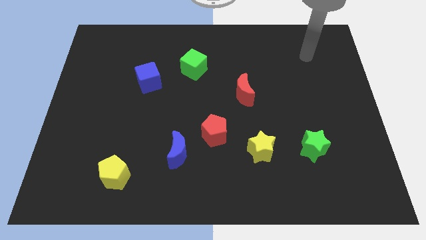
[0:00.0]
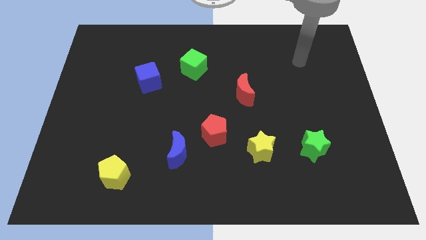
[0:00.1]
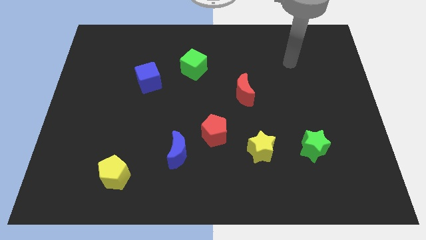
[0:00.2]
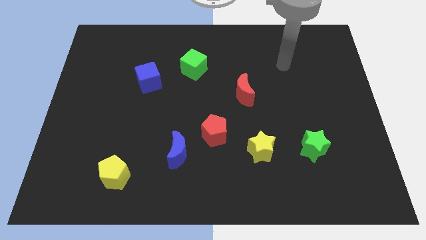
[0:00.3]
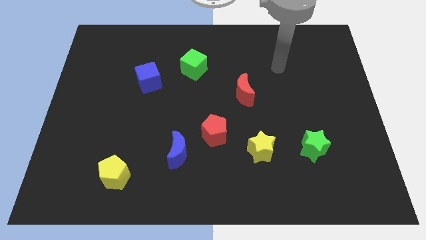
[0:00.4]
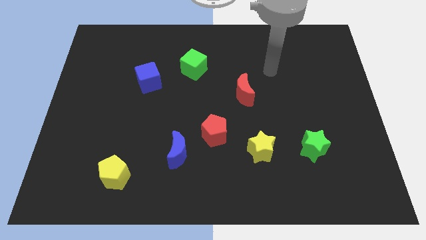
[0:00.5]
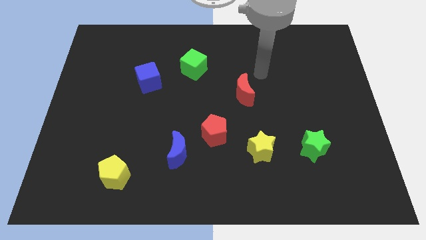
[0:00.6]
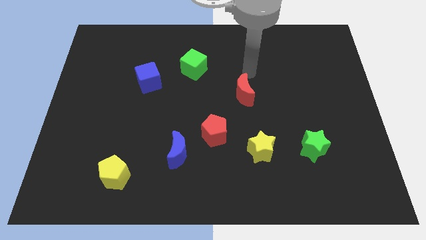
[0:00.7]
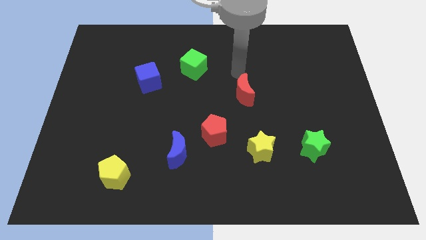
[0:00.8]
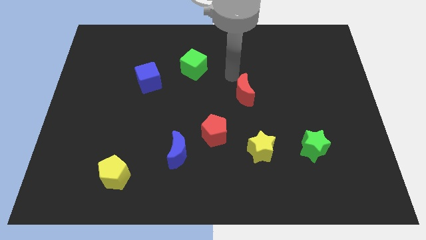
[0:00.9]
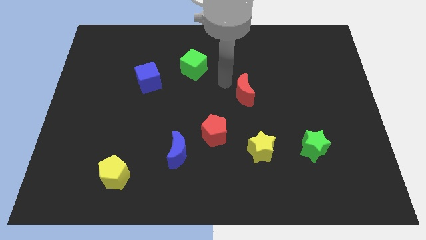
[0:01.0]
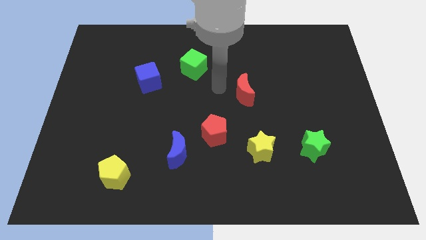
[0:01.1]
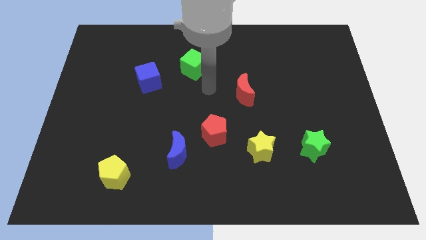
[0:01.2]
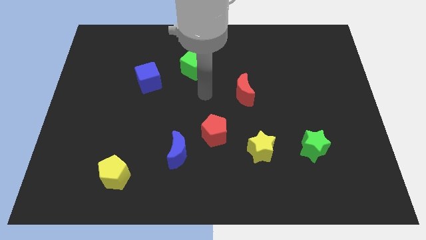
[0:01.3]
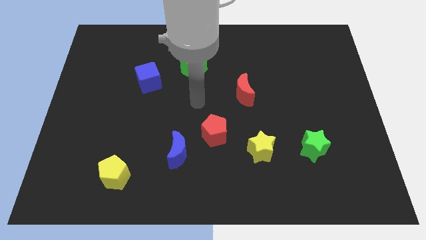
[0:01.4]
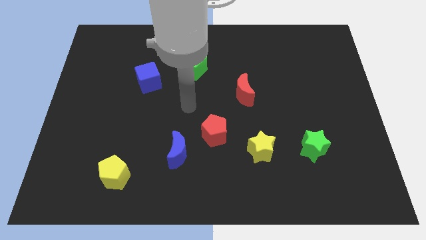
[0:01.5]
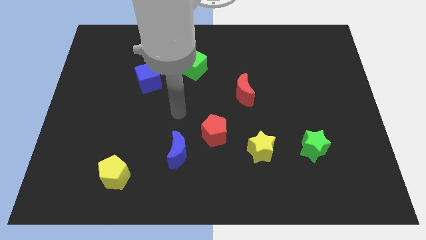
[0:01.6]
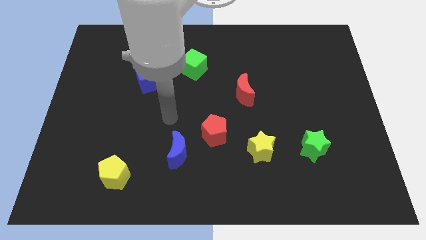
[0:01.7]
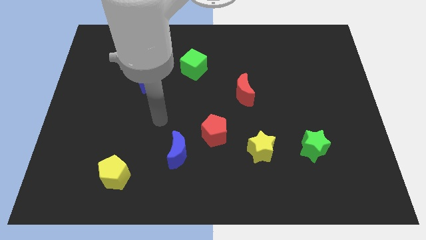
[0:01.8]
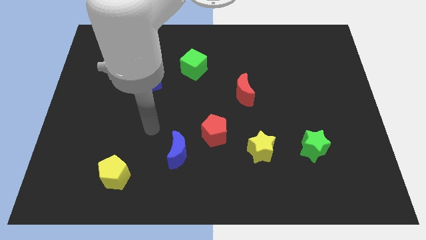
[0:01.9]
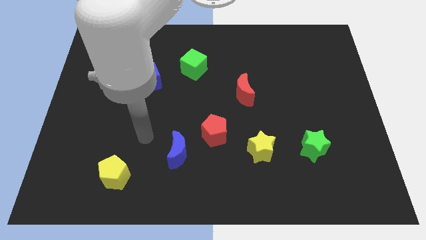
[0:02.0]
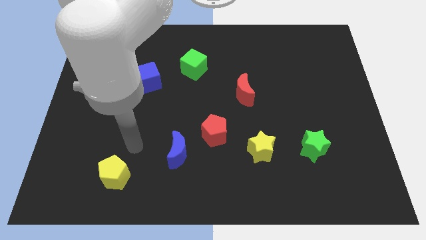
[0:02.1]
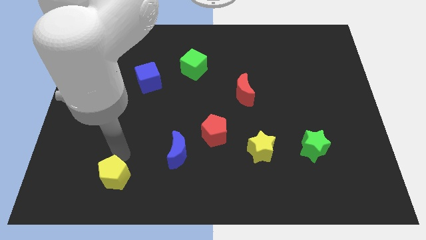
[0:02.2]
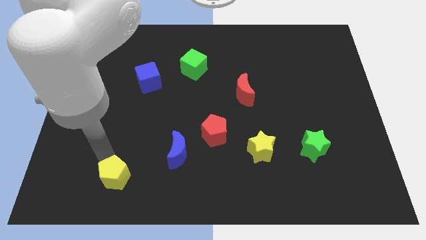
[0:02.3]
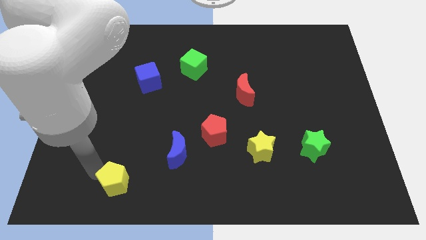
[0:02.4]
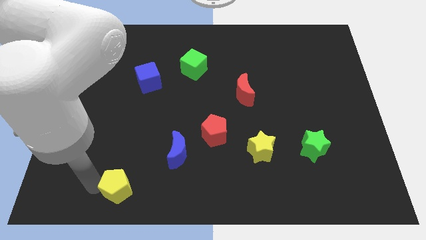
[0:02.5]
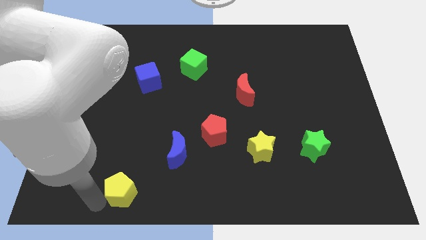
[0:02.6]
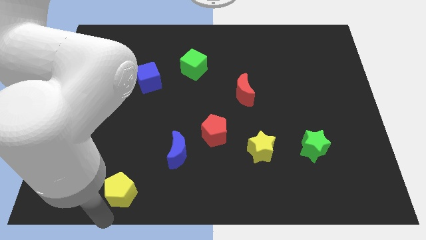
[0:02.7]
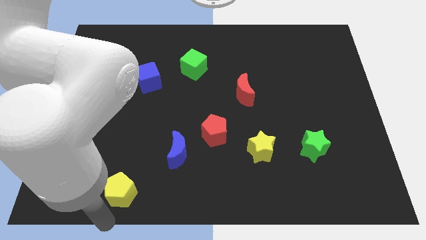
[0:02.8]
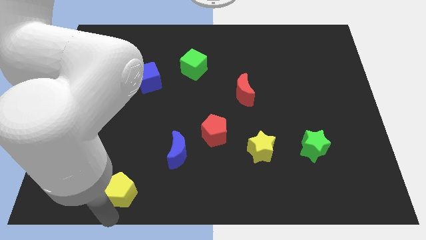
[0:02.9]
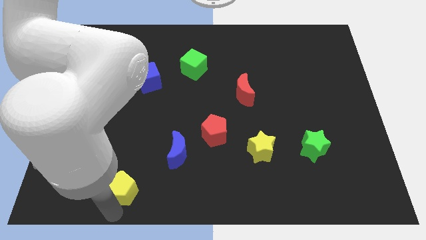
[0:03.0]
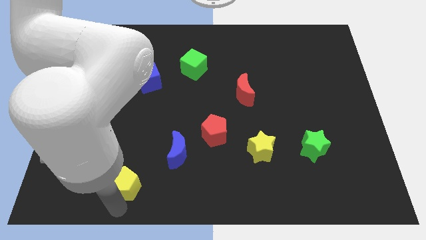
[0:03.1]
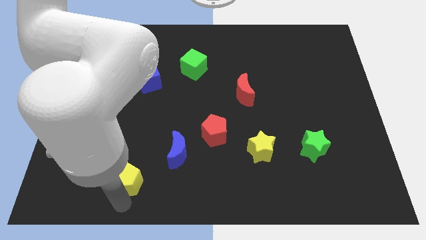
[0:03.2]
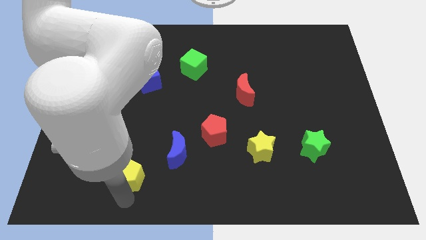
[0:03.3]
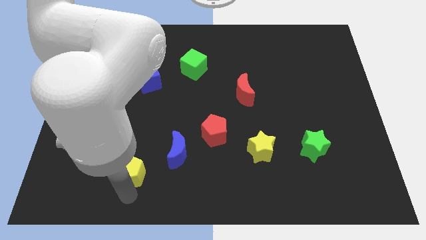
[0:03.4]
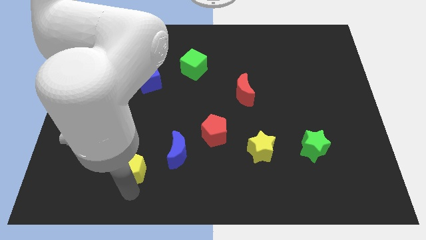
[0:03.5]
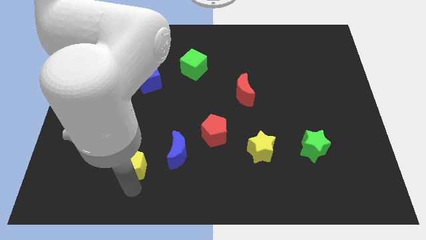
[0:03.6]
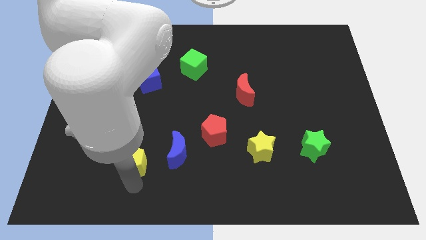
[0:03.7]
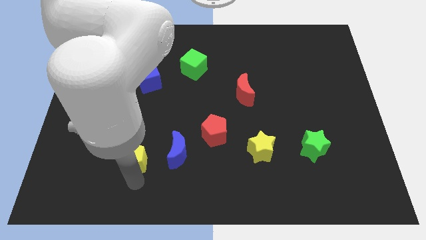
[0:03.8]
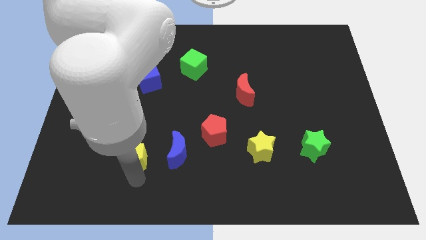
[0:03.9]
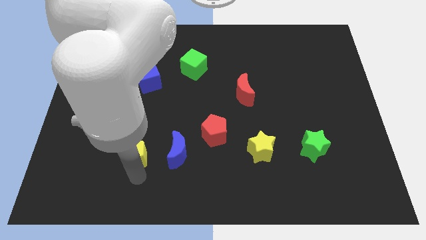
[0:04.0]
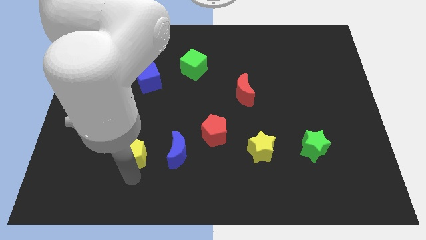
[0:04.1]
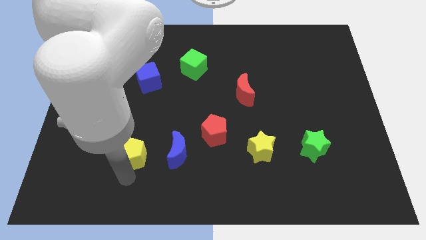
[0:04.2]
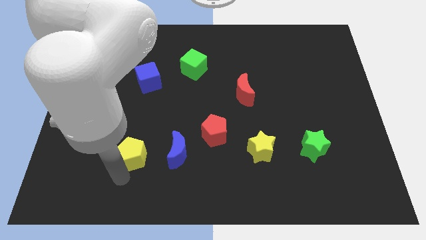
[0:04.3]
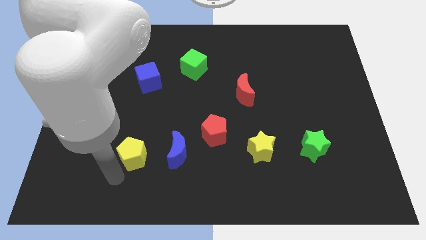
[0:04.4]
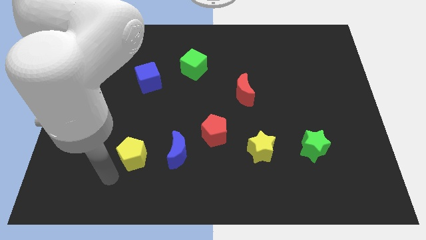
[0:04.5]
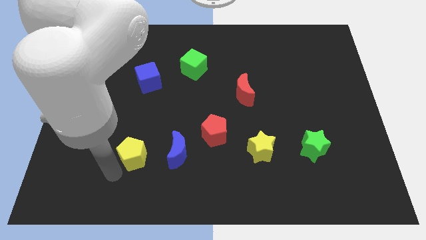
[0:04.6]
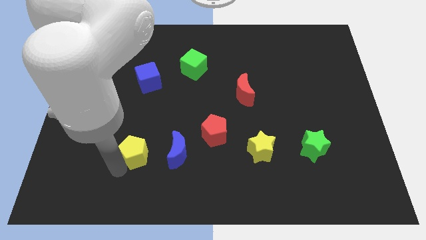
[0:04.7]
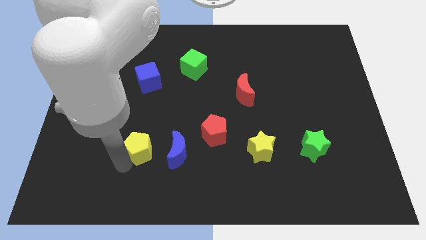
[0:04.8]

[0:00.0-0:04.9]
move the yellow pentagon somewhat diagonally up and to the right

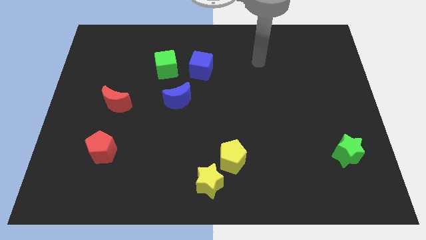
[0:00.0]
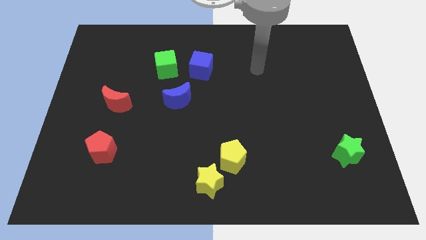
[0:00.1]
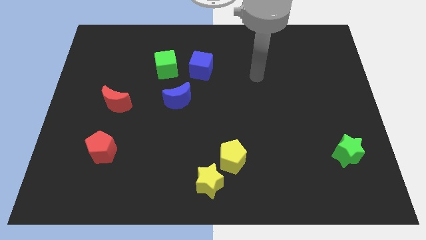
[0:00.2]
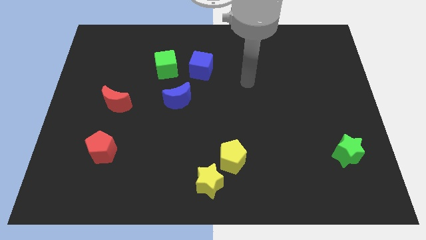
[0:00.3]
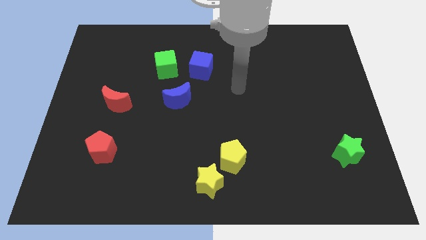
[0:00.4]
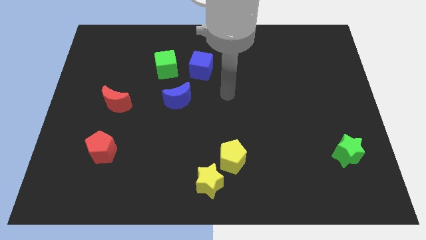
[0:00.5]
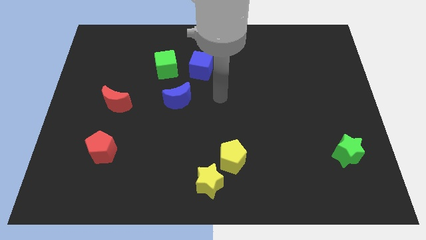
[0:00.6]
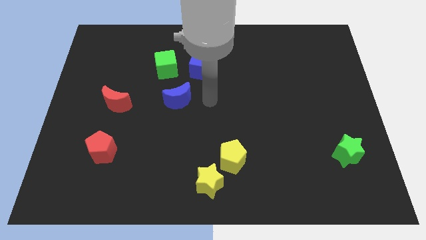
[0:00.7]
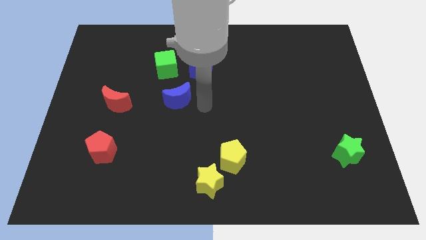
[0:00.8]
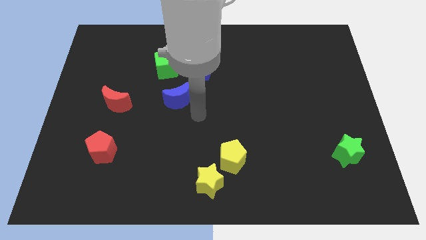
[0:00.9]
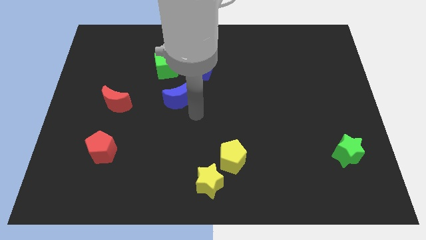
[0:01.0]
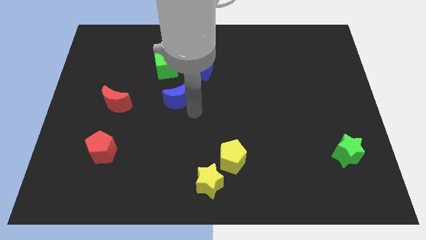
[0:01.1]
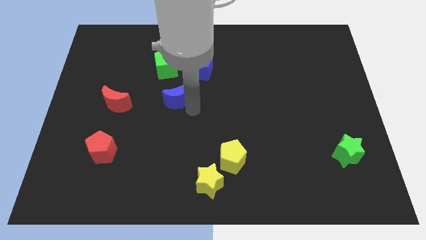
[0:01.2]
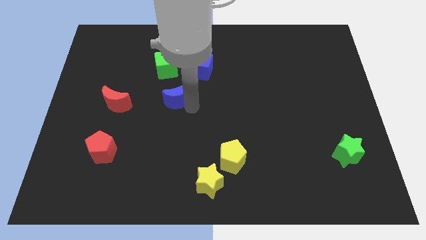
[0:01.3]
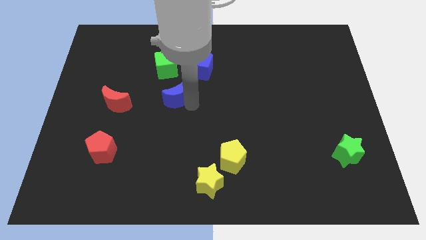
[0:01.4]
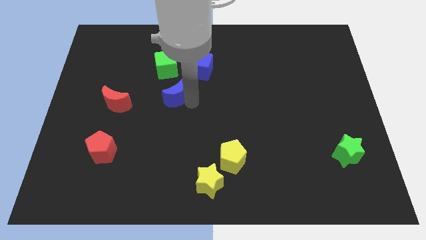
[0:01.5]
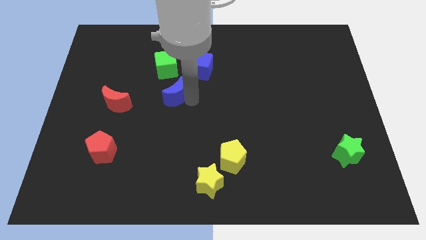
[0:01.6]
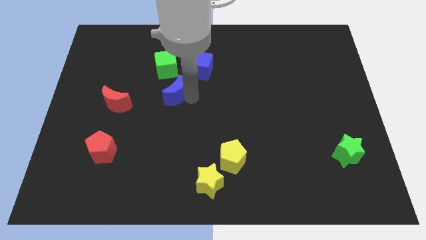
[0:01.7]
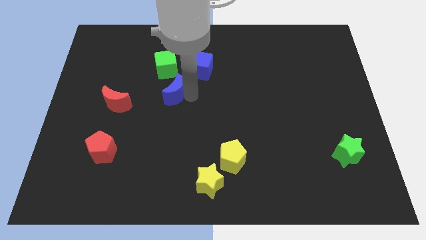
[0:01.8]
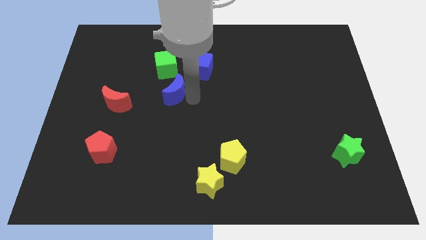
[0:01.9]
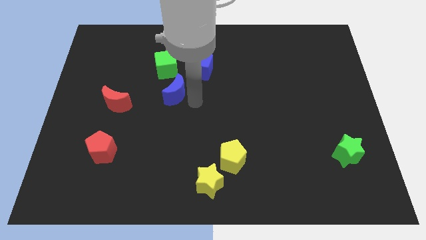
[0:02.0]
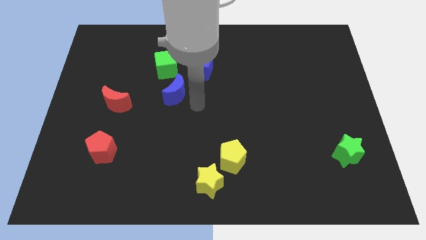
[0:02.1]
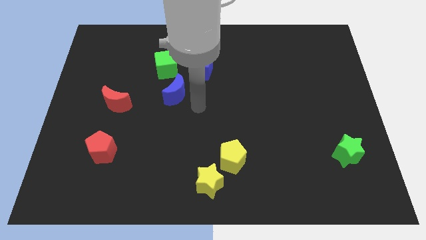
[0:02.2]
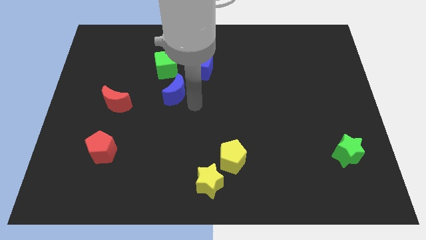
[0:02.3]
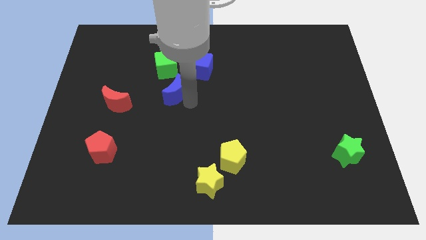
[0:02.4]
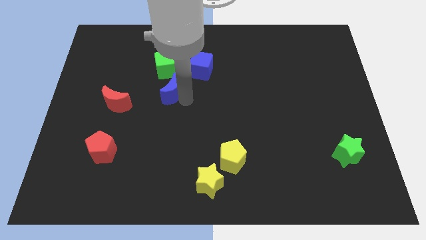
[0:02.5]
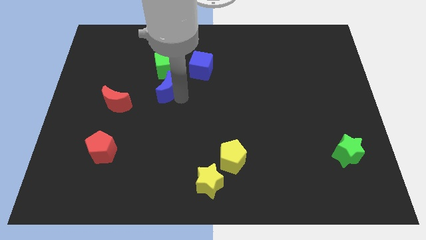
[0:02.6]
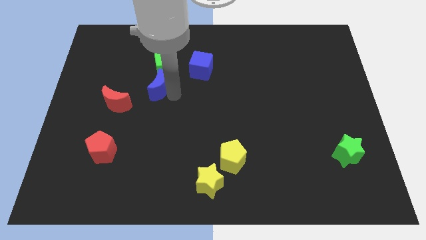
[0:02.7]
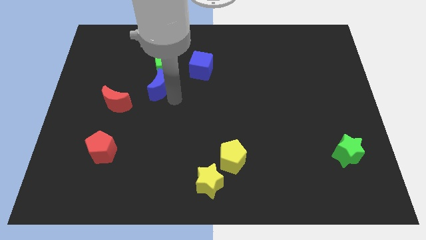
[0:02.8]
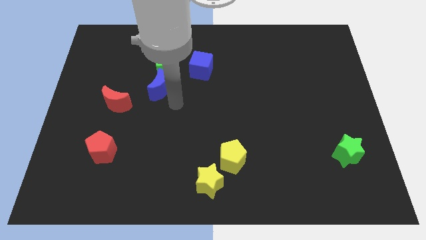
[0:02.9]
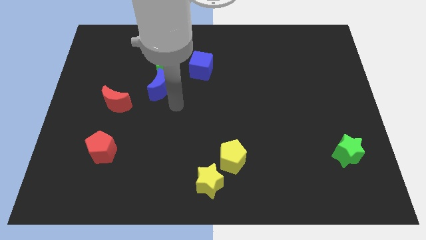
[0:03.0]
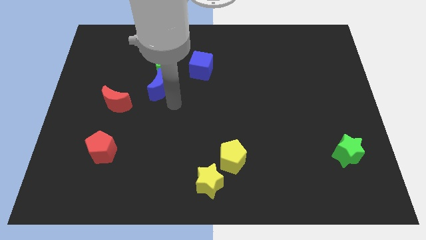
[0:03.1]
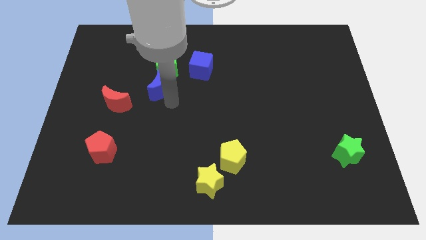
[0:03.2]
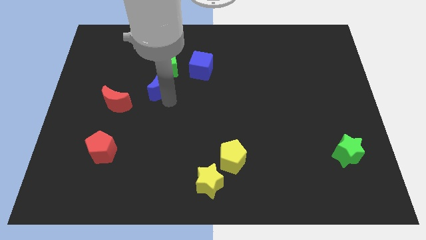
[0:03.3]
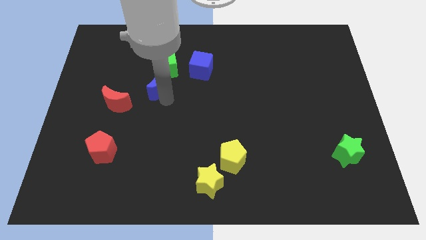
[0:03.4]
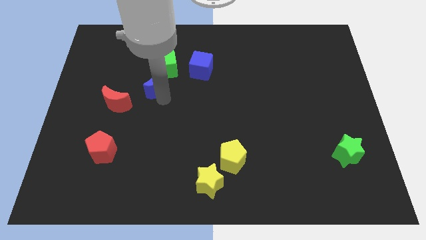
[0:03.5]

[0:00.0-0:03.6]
slightly push the blue moon diagonally upwards and left
